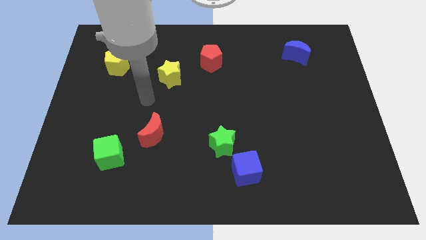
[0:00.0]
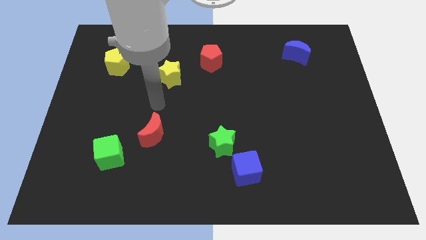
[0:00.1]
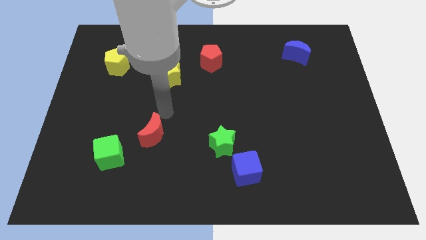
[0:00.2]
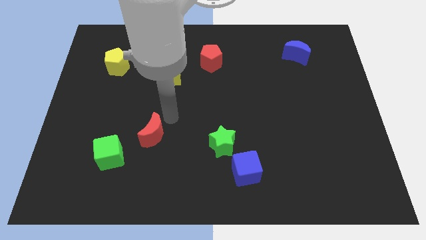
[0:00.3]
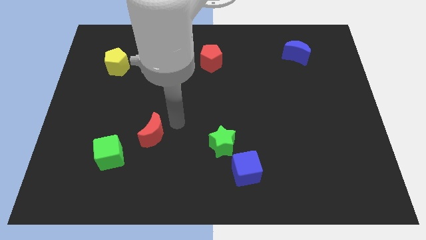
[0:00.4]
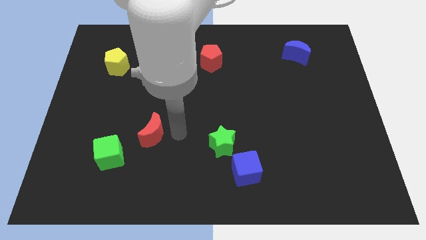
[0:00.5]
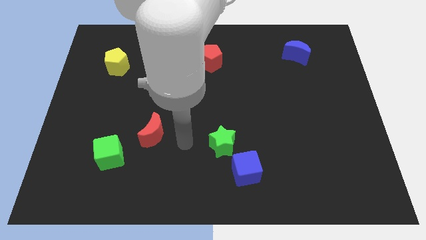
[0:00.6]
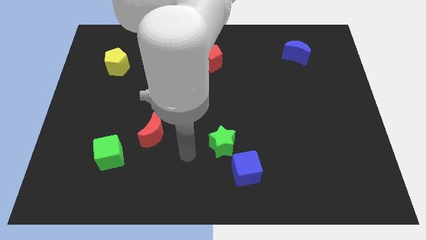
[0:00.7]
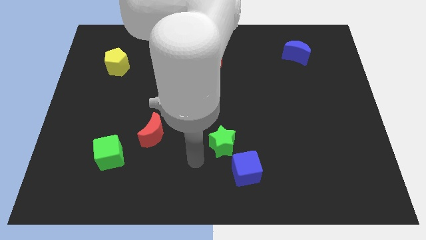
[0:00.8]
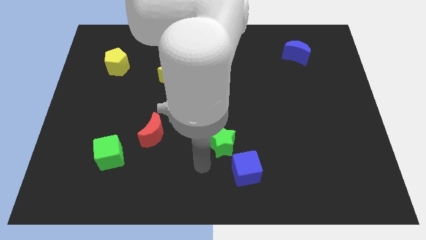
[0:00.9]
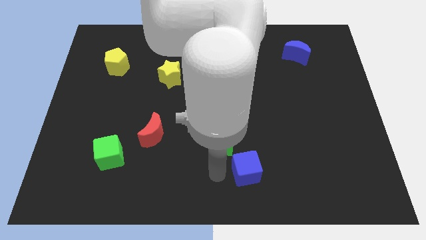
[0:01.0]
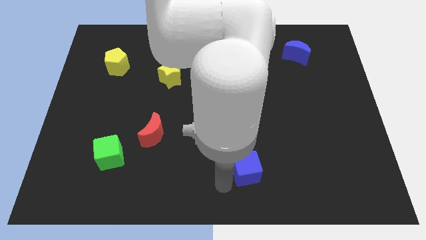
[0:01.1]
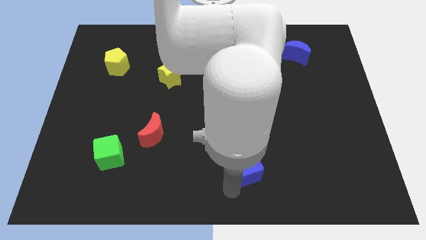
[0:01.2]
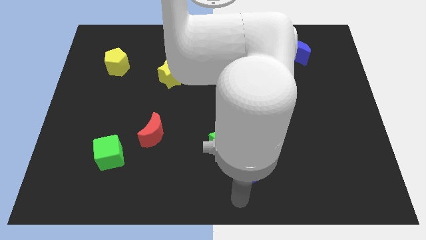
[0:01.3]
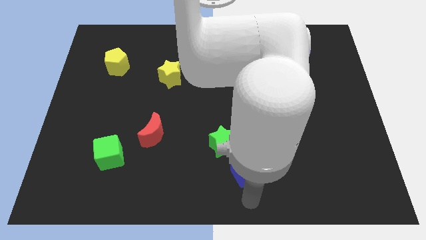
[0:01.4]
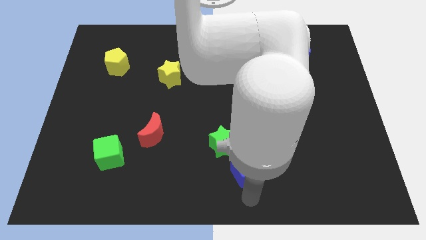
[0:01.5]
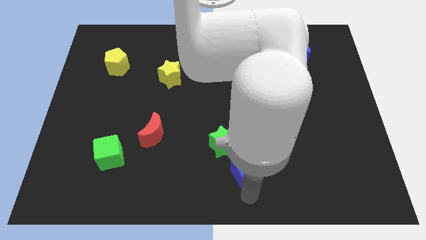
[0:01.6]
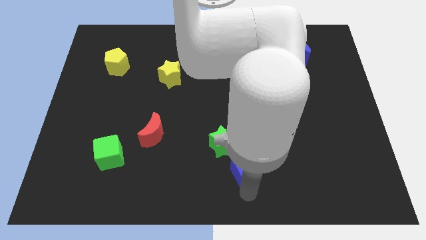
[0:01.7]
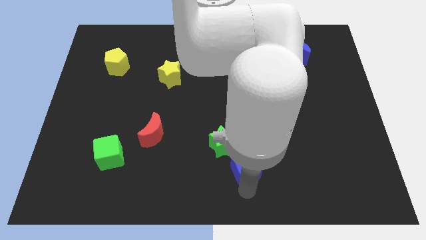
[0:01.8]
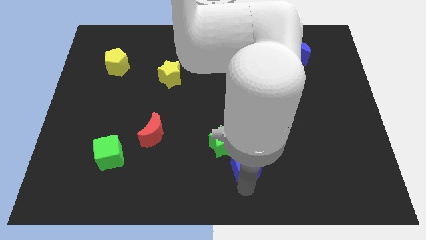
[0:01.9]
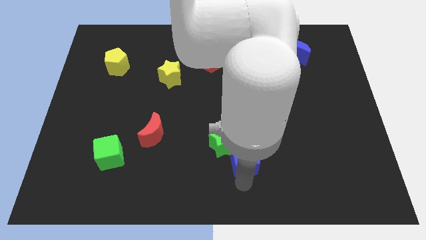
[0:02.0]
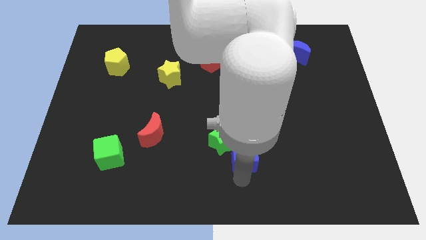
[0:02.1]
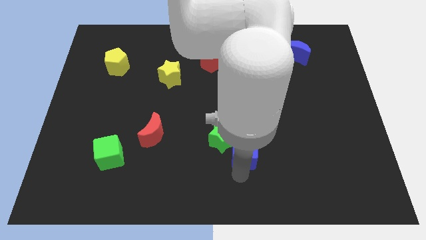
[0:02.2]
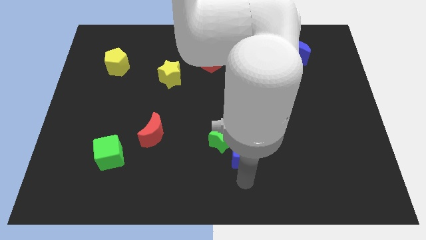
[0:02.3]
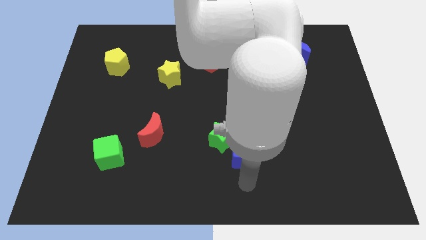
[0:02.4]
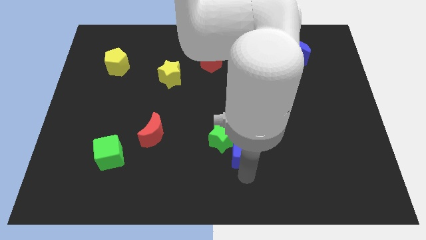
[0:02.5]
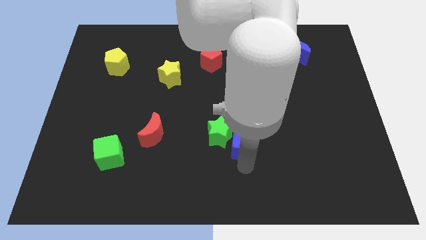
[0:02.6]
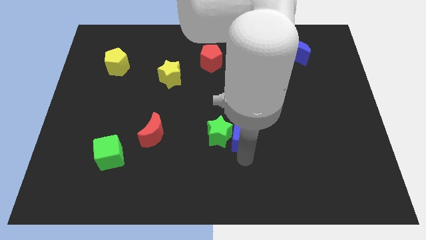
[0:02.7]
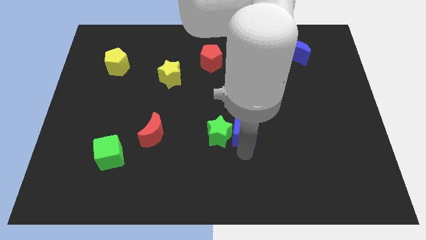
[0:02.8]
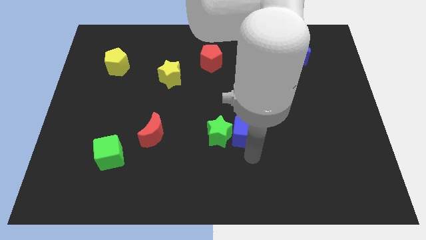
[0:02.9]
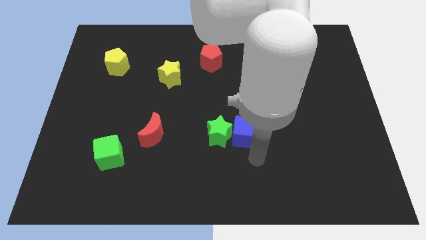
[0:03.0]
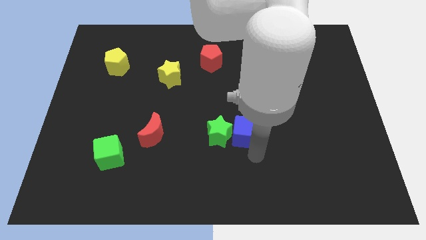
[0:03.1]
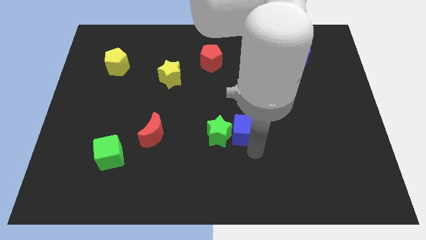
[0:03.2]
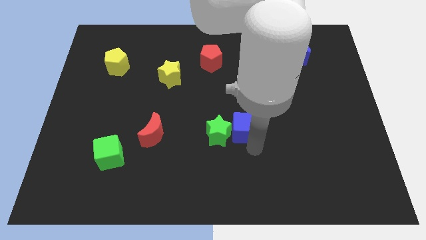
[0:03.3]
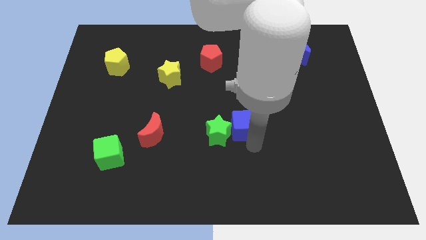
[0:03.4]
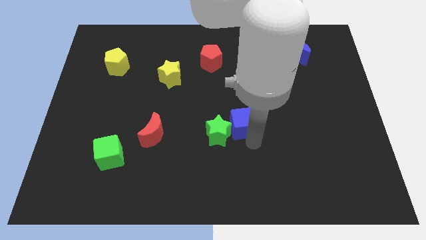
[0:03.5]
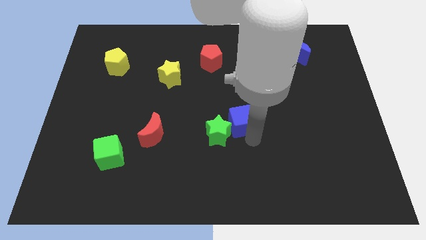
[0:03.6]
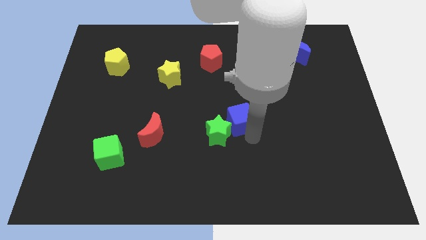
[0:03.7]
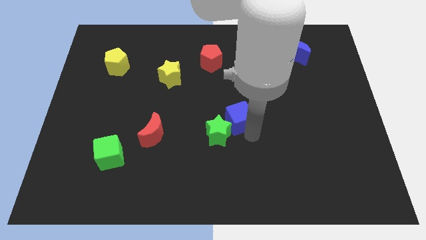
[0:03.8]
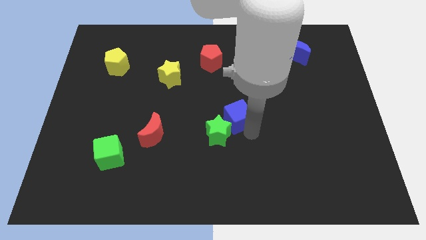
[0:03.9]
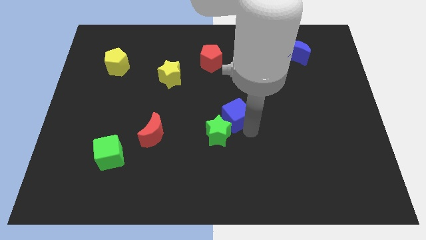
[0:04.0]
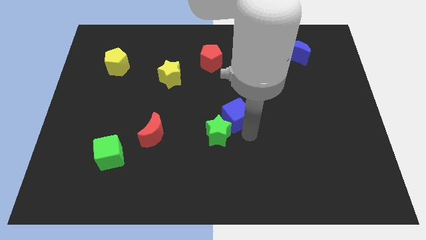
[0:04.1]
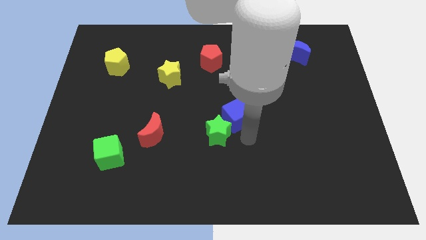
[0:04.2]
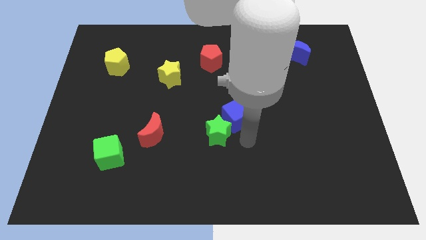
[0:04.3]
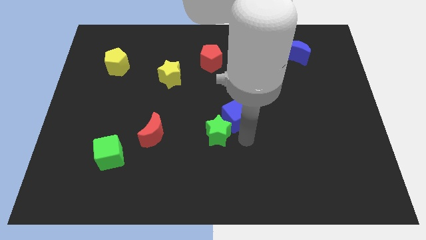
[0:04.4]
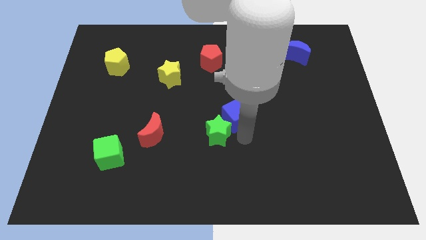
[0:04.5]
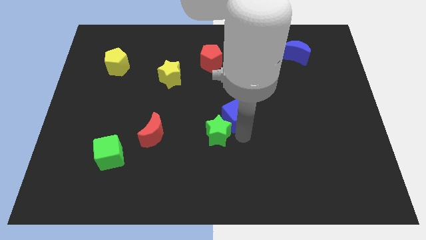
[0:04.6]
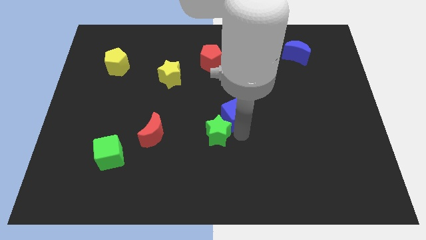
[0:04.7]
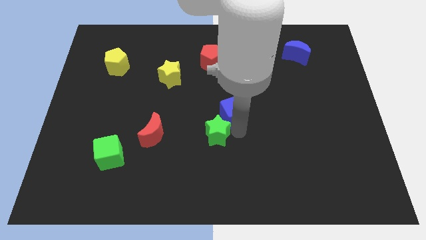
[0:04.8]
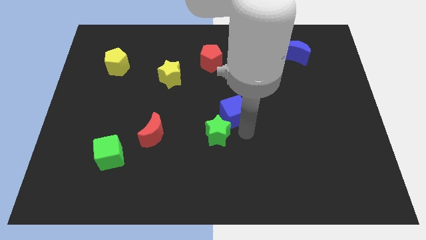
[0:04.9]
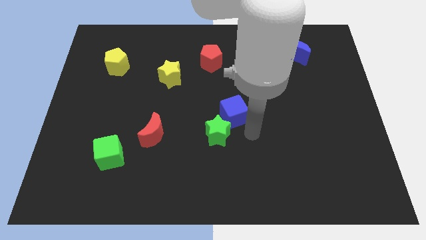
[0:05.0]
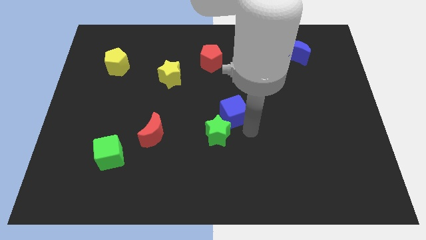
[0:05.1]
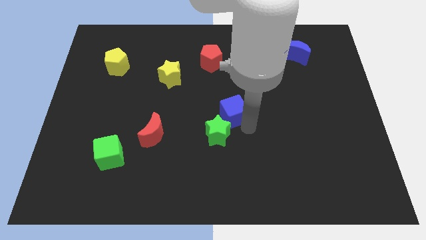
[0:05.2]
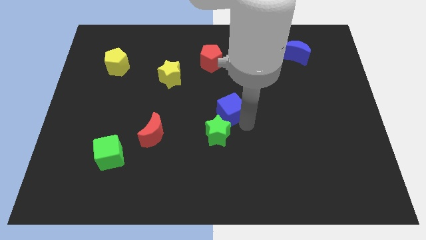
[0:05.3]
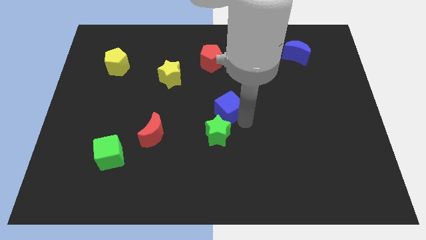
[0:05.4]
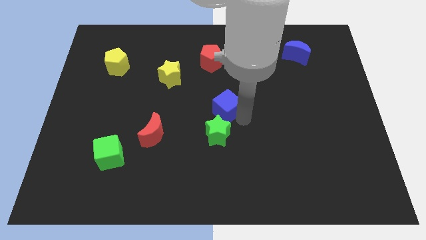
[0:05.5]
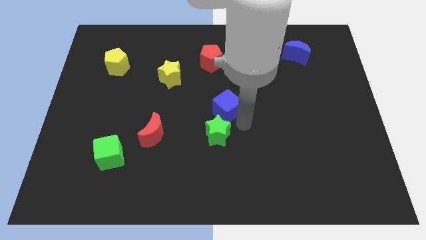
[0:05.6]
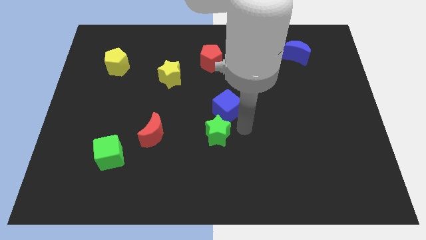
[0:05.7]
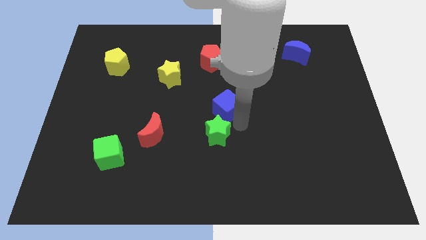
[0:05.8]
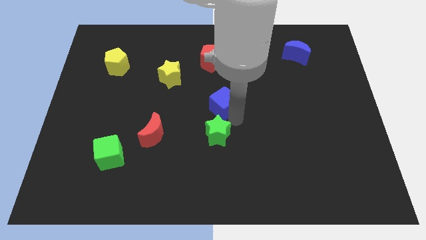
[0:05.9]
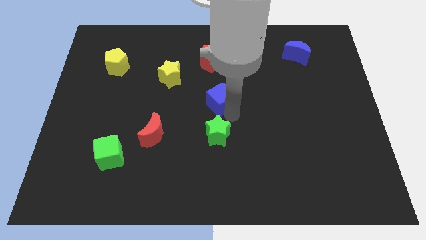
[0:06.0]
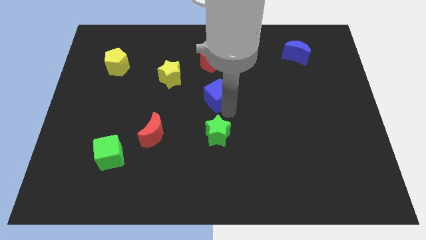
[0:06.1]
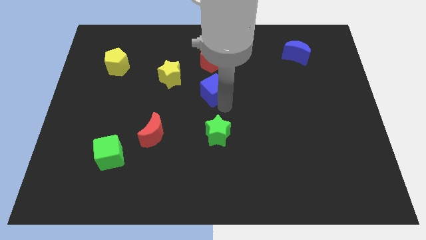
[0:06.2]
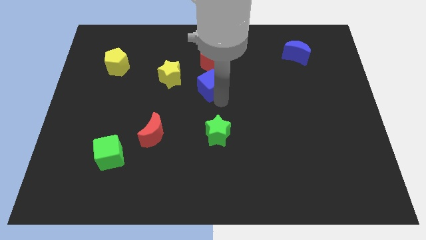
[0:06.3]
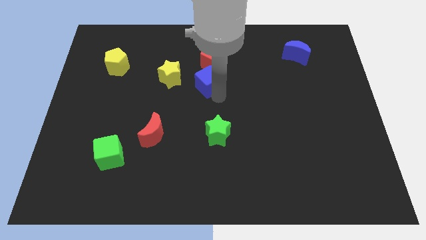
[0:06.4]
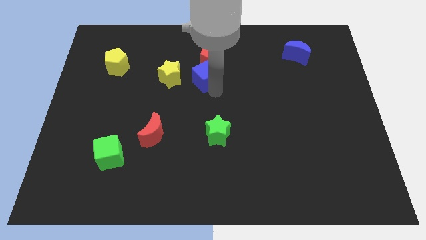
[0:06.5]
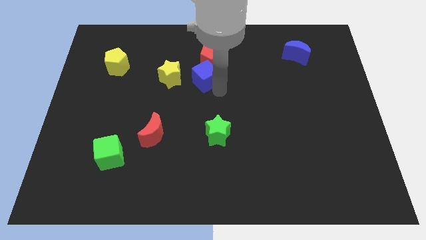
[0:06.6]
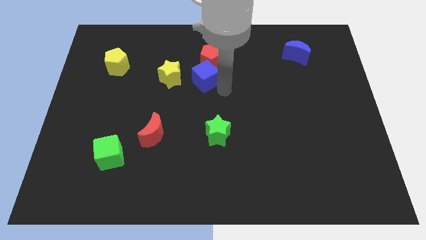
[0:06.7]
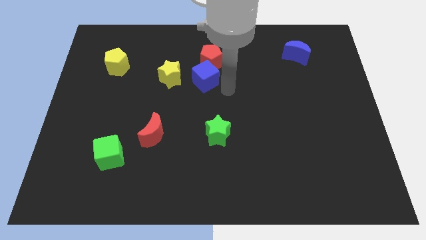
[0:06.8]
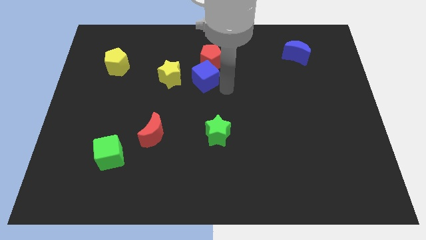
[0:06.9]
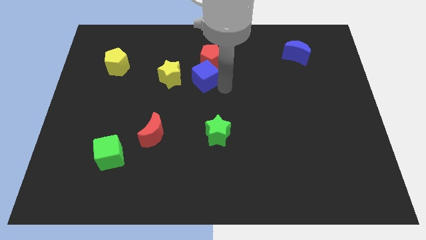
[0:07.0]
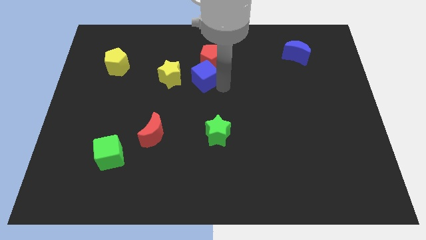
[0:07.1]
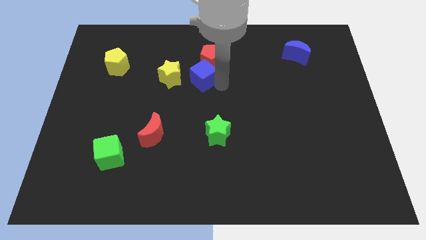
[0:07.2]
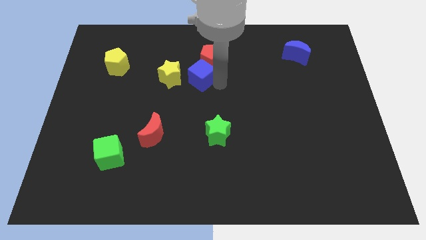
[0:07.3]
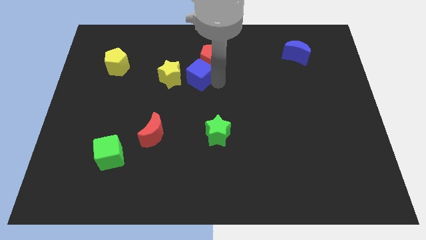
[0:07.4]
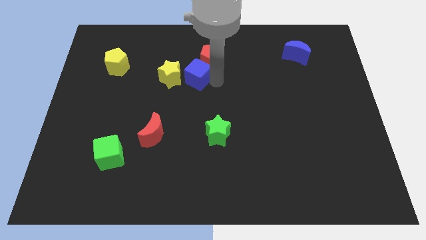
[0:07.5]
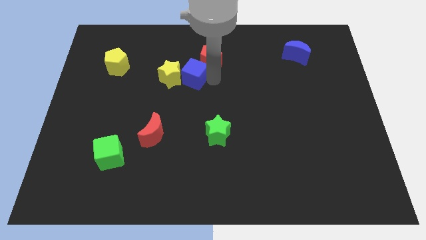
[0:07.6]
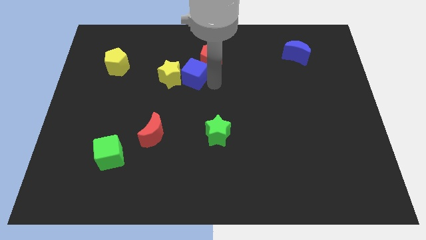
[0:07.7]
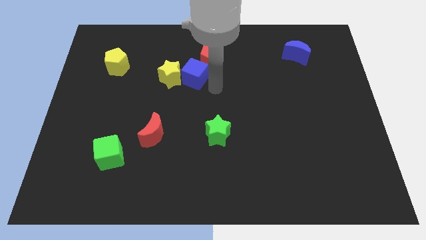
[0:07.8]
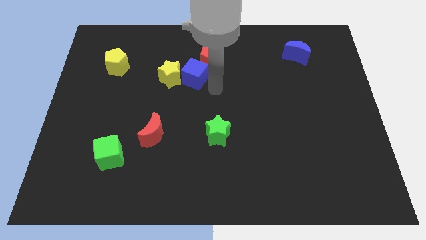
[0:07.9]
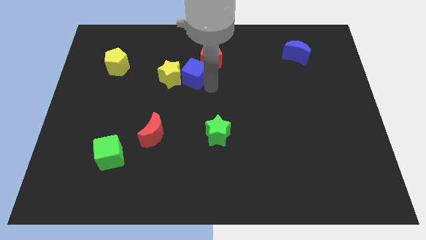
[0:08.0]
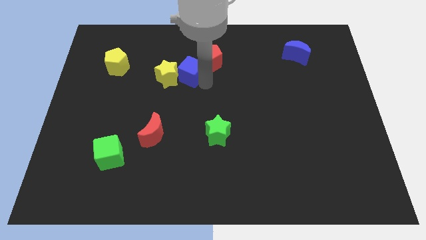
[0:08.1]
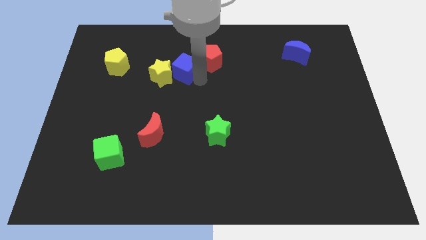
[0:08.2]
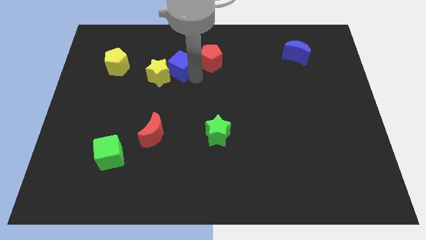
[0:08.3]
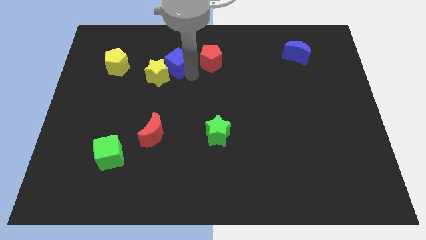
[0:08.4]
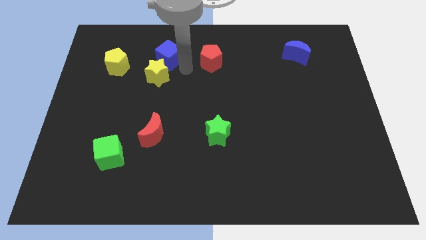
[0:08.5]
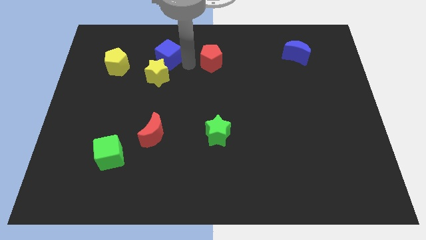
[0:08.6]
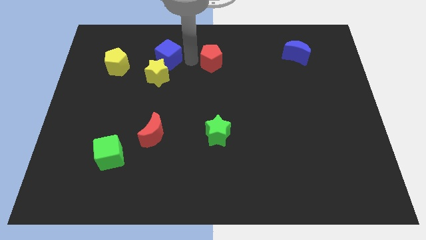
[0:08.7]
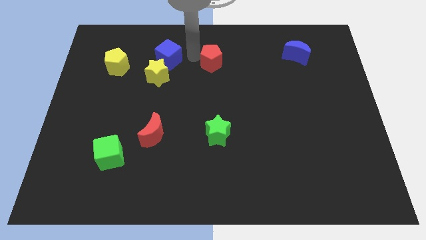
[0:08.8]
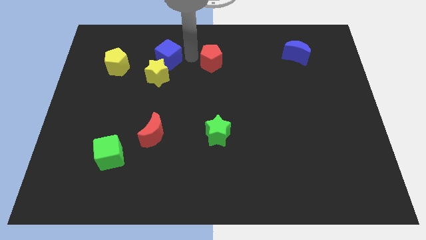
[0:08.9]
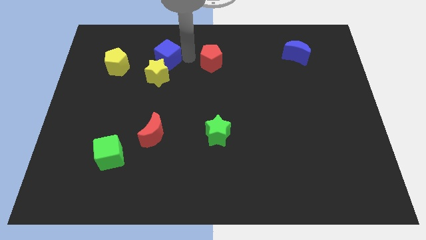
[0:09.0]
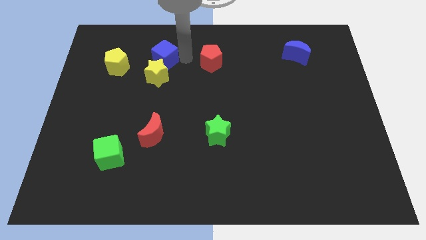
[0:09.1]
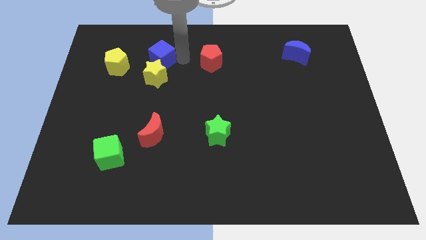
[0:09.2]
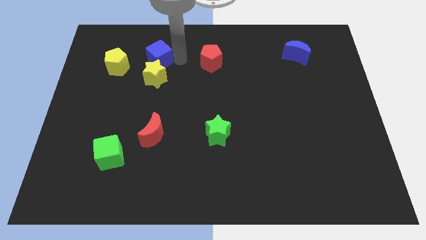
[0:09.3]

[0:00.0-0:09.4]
push the blue cube diagonally up and to the left of the yellow star
